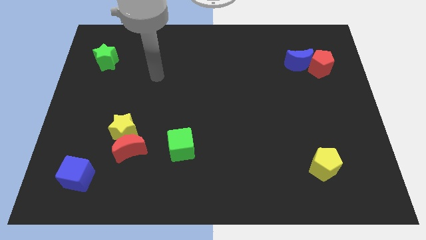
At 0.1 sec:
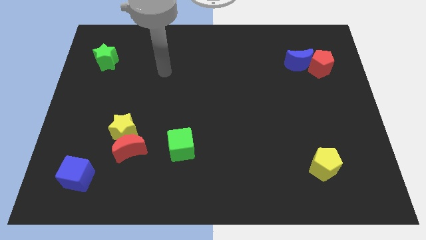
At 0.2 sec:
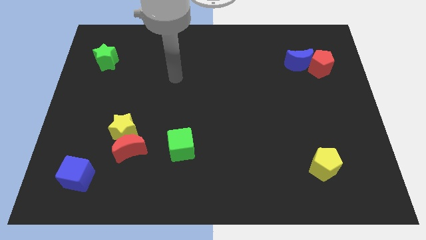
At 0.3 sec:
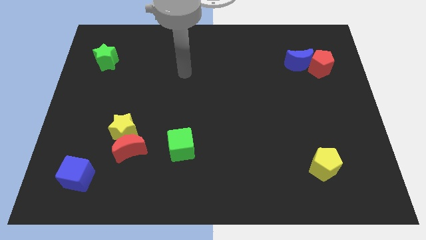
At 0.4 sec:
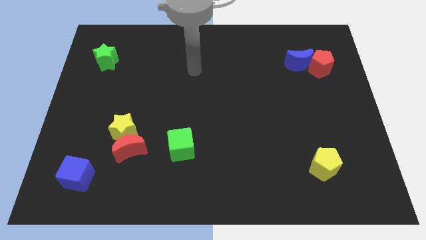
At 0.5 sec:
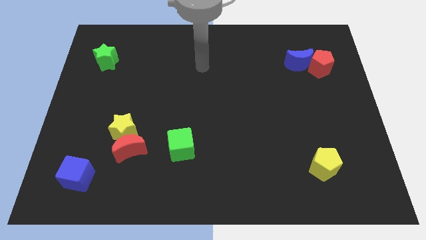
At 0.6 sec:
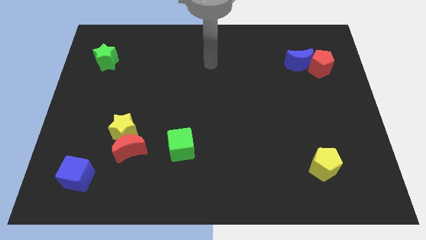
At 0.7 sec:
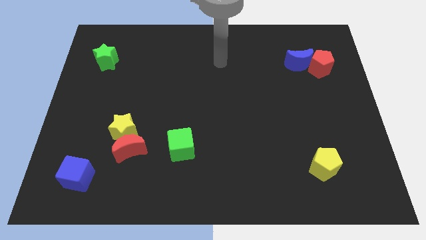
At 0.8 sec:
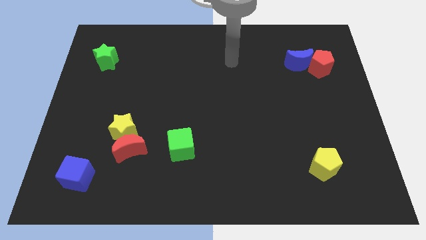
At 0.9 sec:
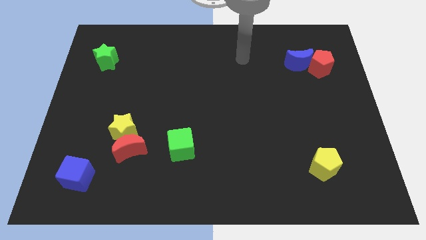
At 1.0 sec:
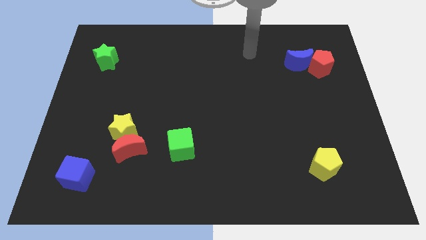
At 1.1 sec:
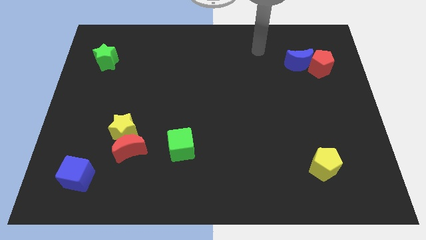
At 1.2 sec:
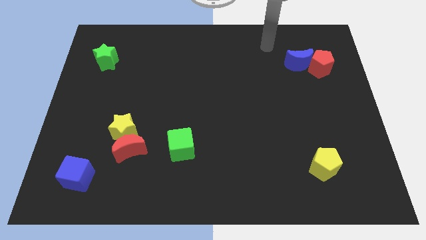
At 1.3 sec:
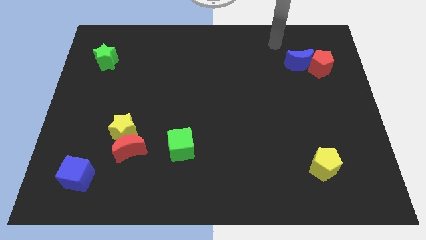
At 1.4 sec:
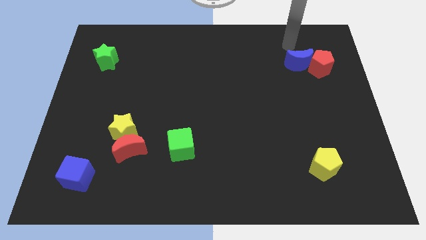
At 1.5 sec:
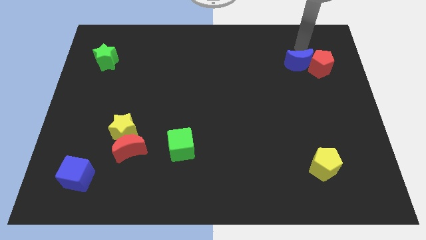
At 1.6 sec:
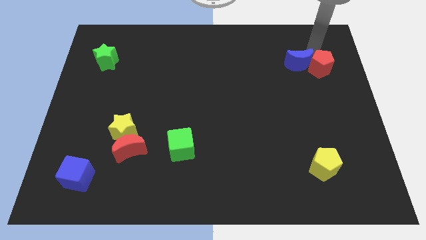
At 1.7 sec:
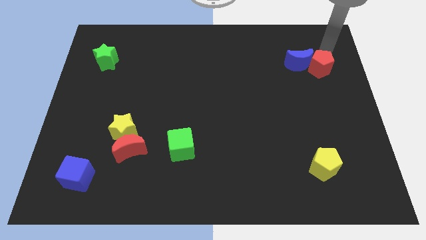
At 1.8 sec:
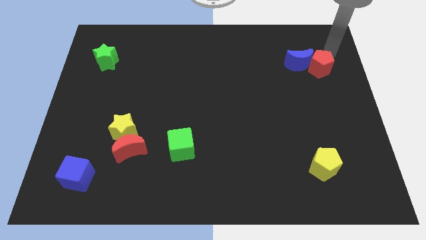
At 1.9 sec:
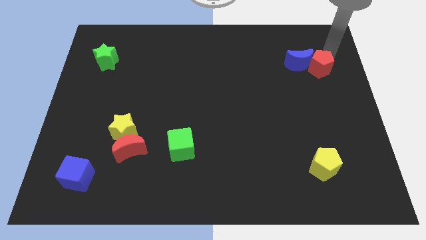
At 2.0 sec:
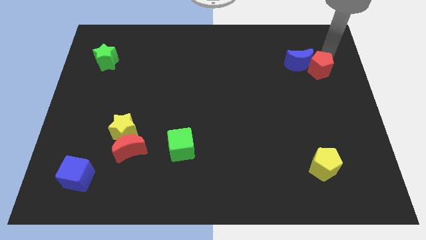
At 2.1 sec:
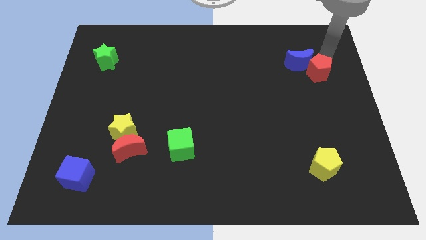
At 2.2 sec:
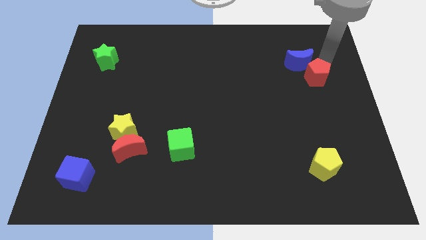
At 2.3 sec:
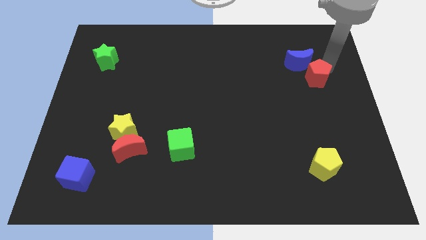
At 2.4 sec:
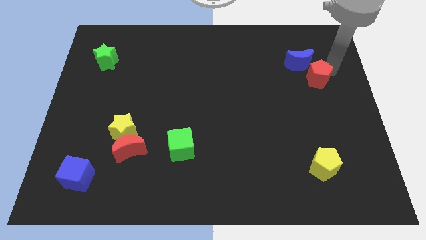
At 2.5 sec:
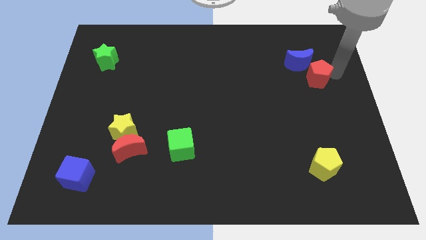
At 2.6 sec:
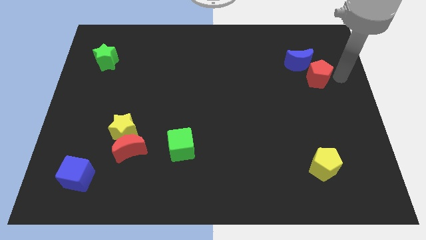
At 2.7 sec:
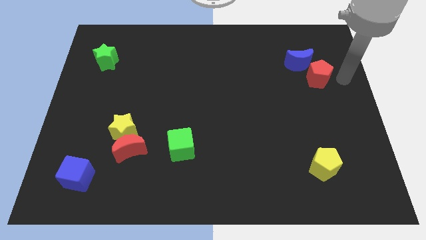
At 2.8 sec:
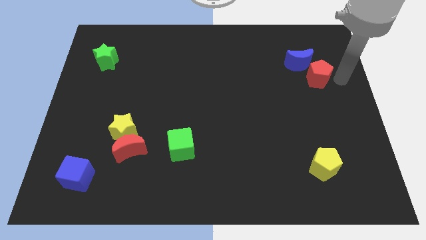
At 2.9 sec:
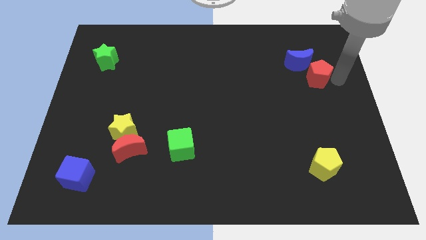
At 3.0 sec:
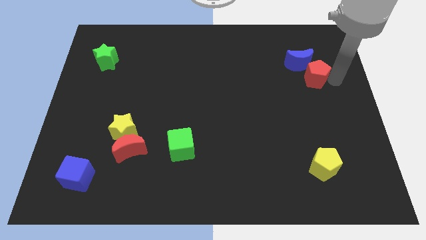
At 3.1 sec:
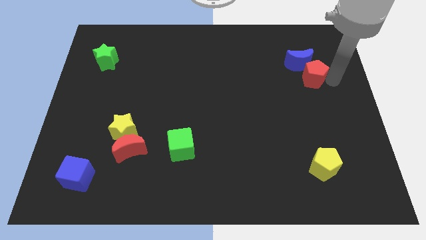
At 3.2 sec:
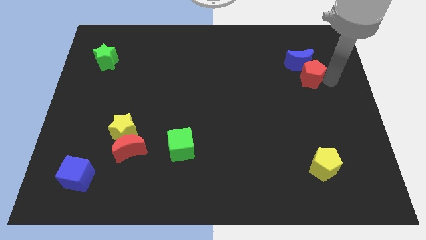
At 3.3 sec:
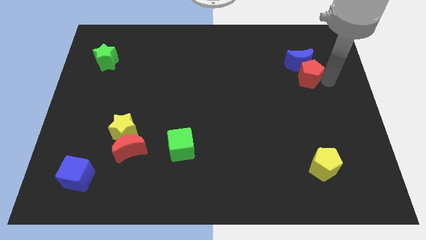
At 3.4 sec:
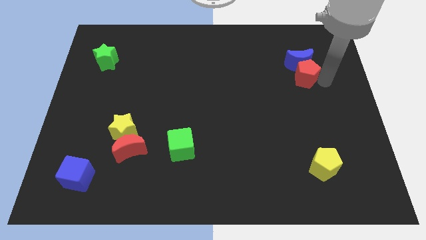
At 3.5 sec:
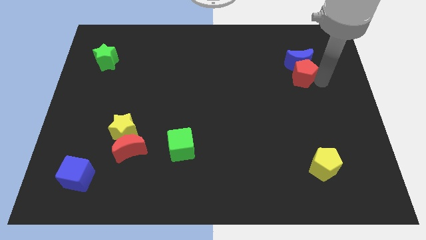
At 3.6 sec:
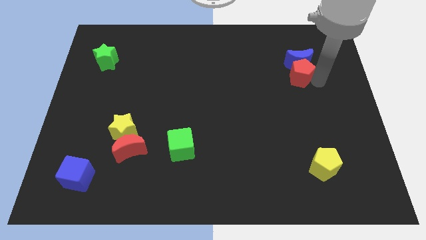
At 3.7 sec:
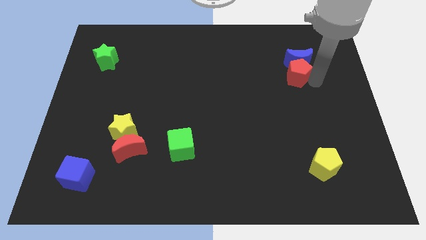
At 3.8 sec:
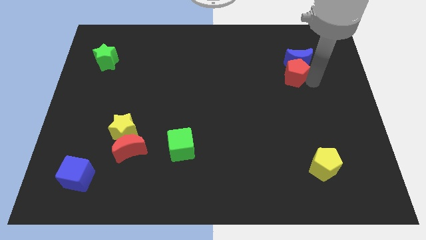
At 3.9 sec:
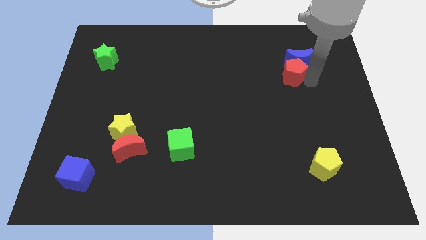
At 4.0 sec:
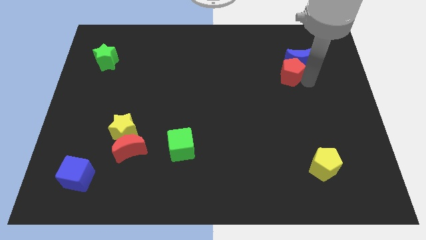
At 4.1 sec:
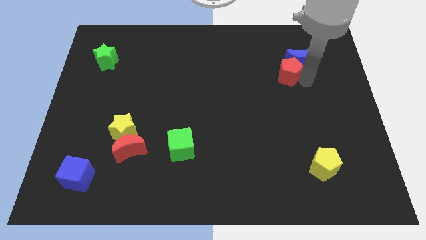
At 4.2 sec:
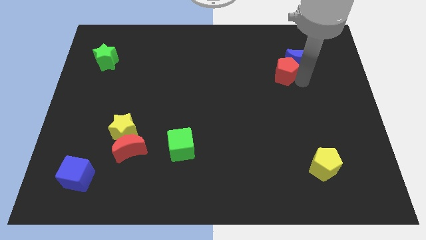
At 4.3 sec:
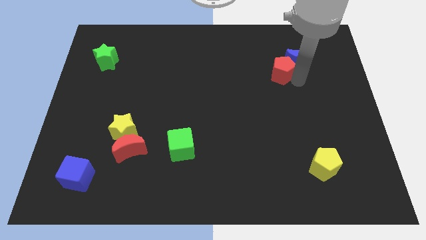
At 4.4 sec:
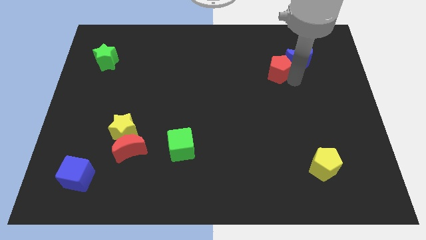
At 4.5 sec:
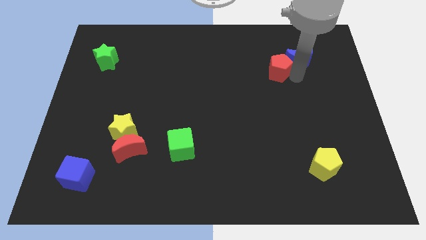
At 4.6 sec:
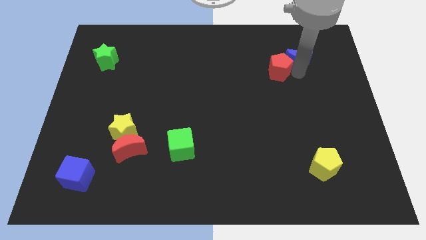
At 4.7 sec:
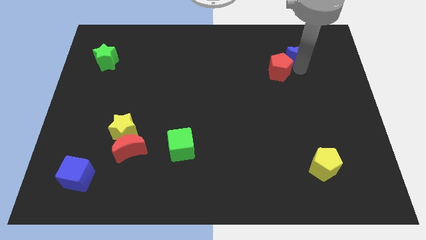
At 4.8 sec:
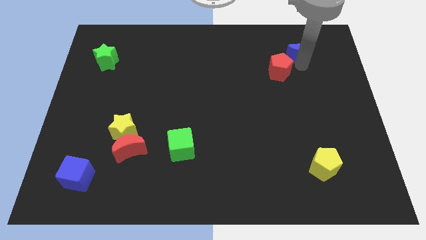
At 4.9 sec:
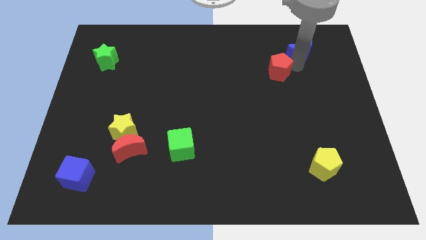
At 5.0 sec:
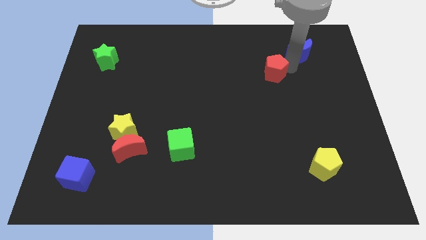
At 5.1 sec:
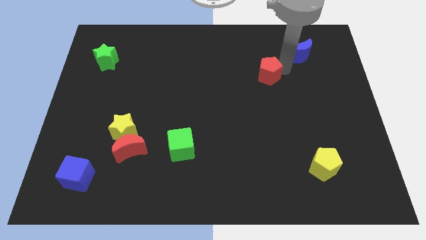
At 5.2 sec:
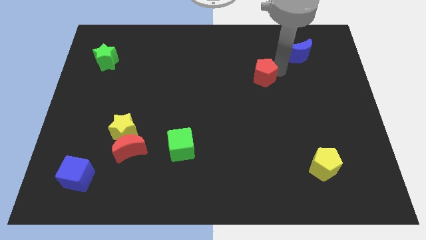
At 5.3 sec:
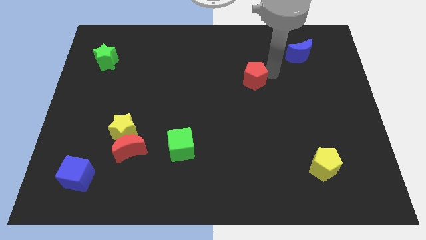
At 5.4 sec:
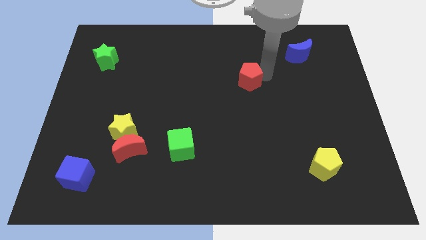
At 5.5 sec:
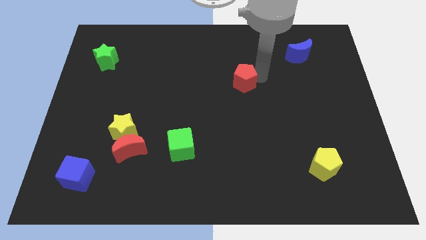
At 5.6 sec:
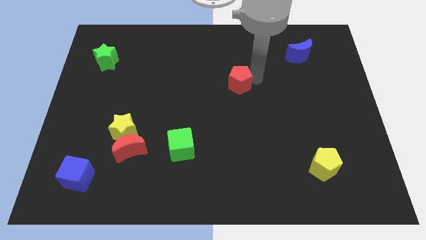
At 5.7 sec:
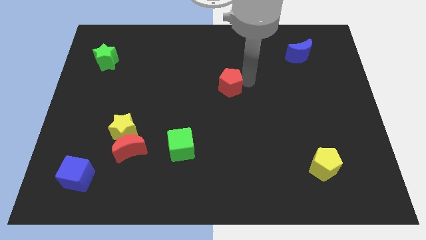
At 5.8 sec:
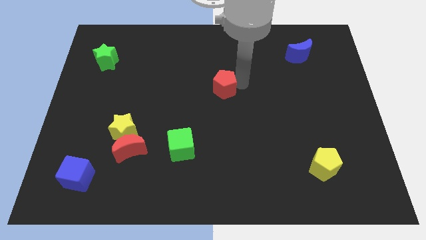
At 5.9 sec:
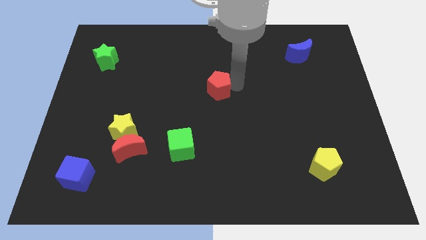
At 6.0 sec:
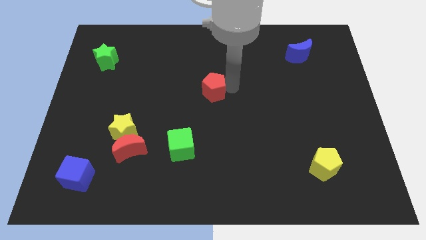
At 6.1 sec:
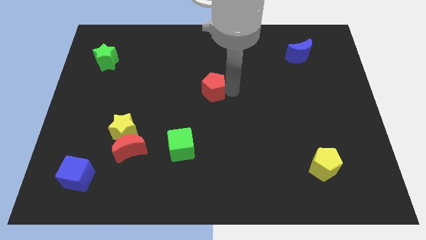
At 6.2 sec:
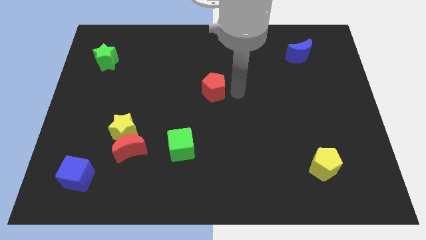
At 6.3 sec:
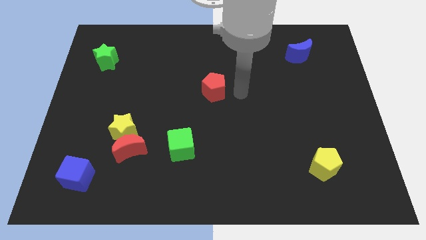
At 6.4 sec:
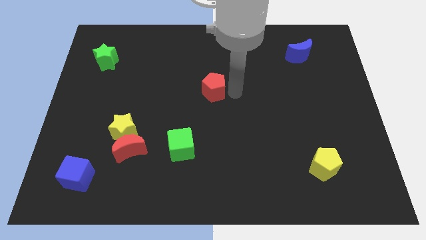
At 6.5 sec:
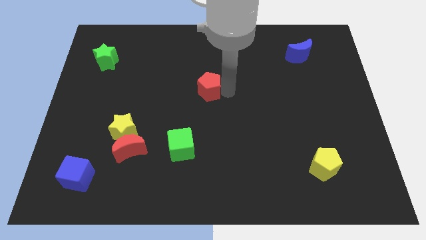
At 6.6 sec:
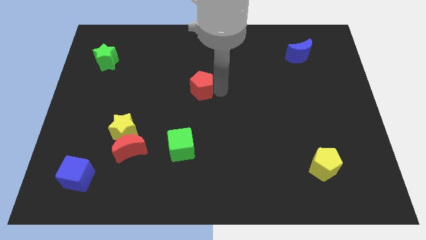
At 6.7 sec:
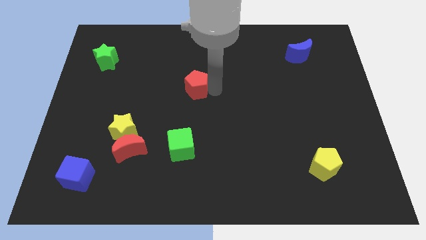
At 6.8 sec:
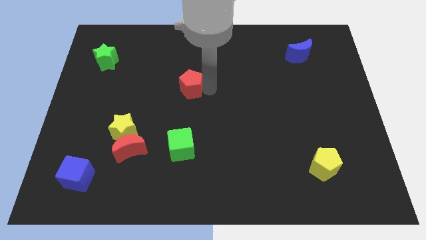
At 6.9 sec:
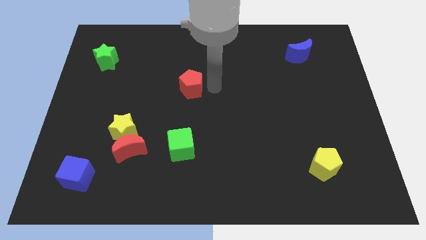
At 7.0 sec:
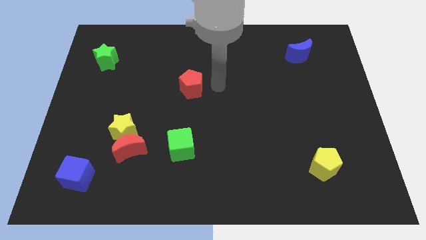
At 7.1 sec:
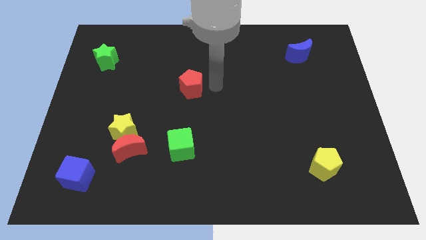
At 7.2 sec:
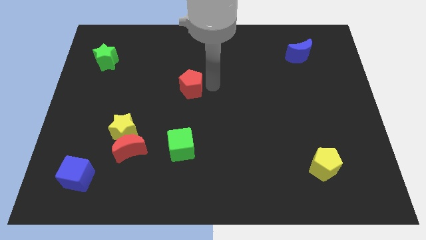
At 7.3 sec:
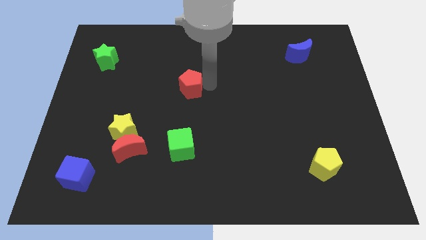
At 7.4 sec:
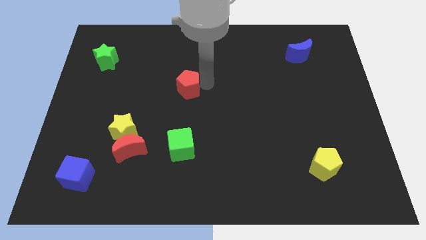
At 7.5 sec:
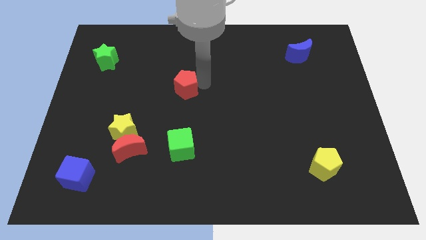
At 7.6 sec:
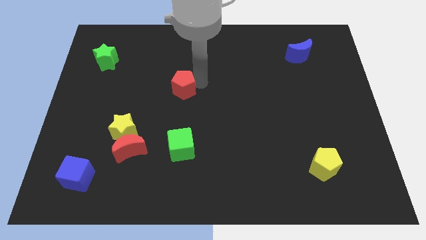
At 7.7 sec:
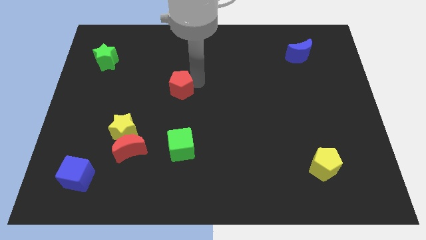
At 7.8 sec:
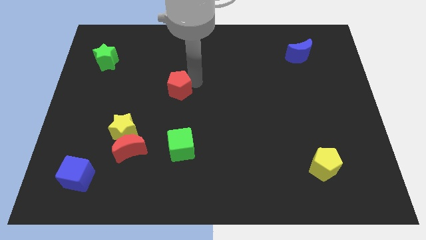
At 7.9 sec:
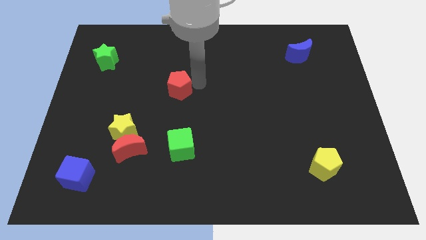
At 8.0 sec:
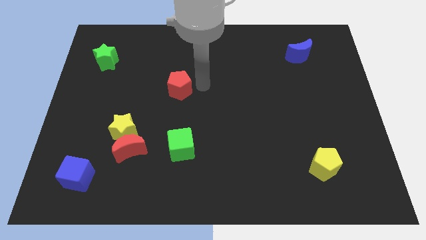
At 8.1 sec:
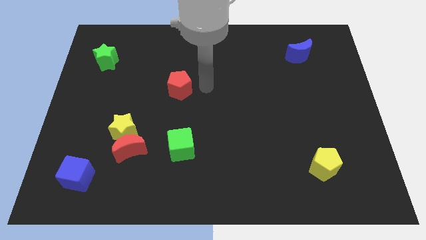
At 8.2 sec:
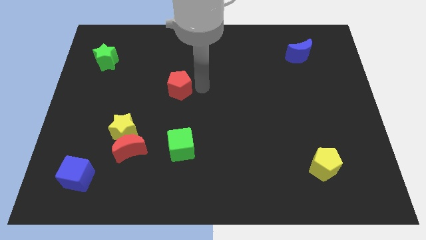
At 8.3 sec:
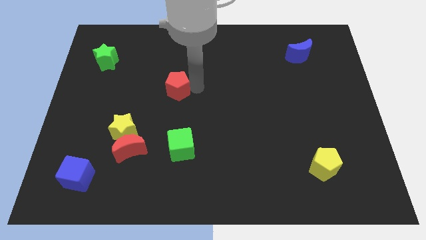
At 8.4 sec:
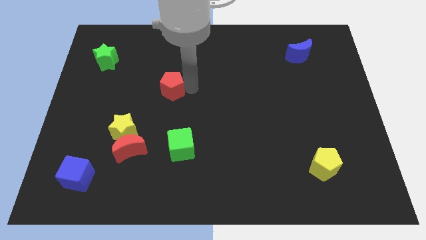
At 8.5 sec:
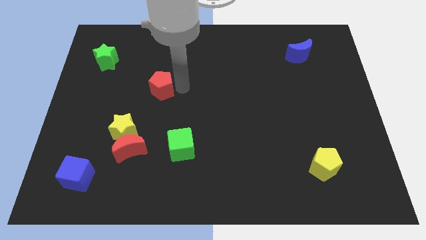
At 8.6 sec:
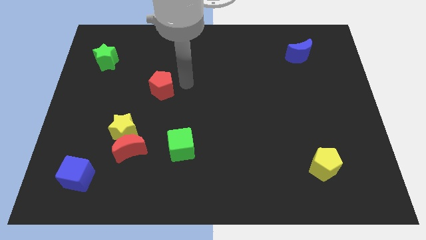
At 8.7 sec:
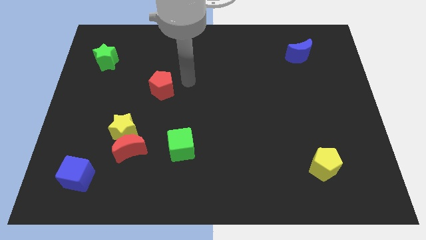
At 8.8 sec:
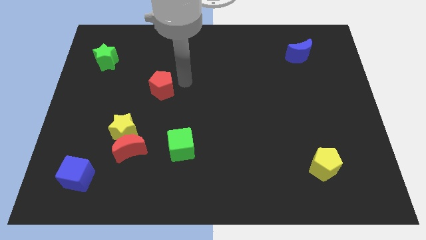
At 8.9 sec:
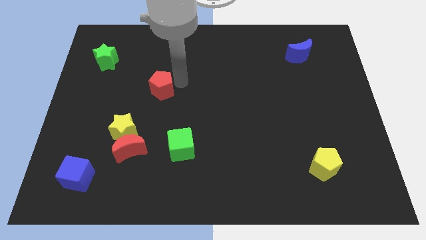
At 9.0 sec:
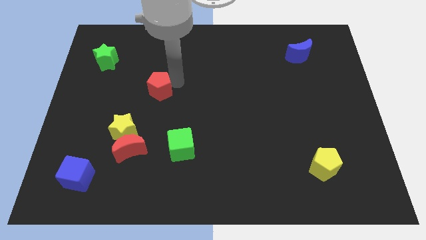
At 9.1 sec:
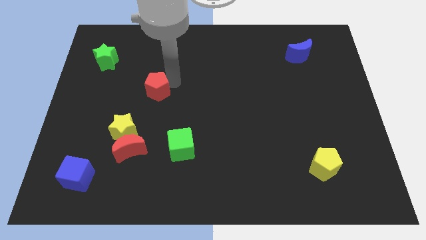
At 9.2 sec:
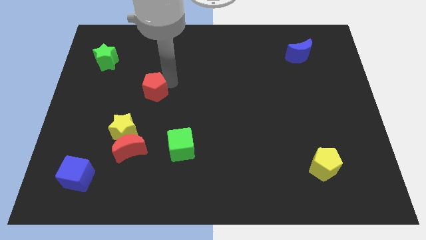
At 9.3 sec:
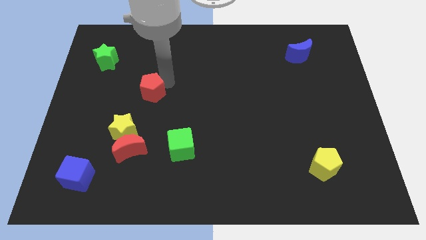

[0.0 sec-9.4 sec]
put the red pentagon above the yellow star
